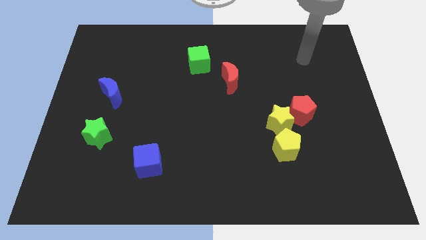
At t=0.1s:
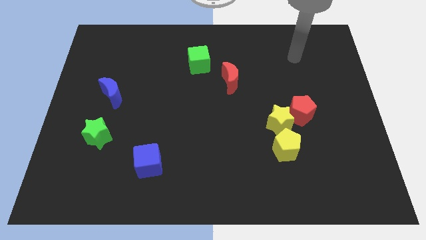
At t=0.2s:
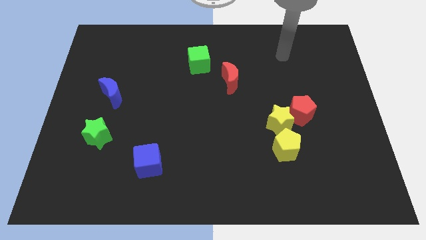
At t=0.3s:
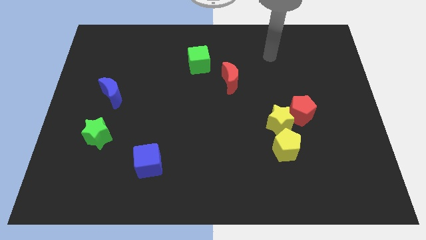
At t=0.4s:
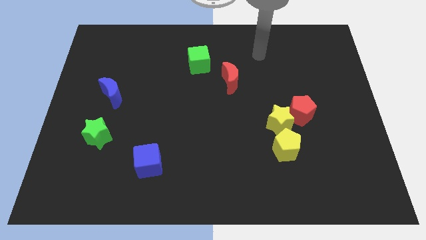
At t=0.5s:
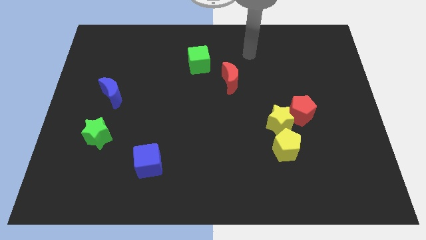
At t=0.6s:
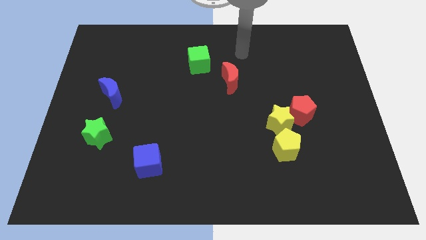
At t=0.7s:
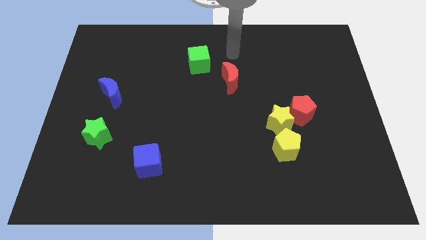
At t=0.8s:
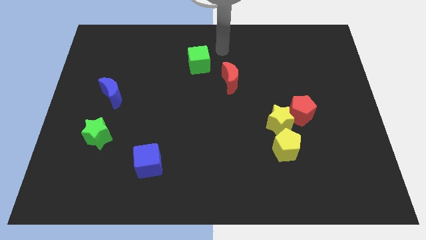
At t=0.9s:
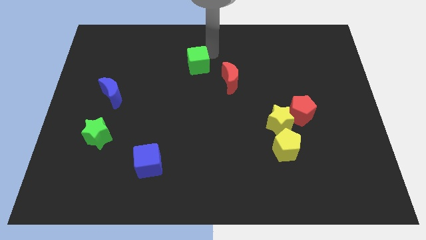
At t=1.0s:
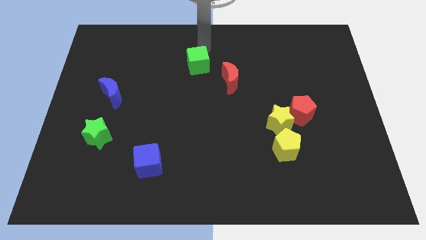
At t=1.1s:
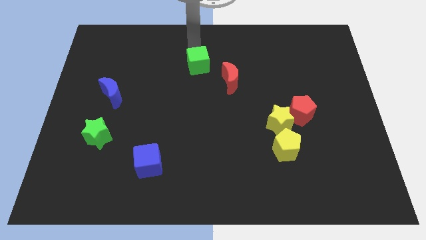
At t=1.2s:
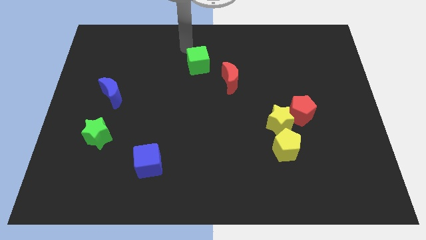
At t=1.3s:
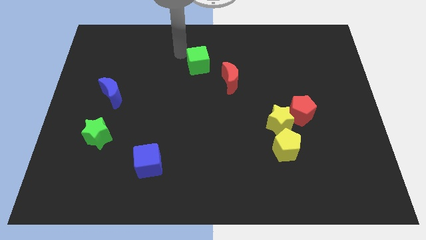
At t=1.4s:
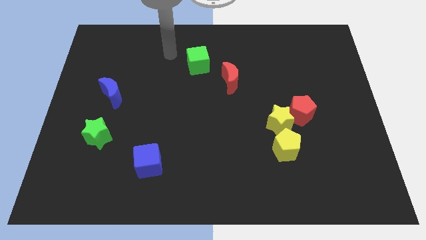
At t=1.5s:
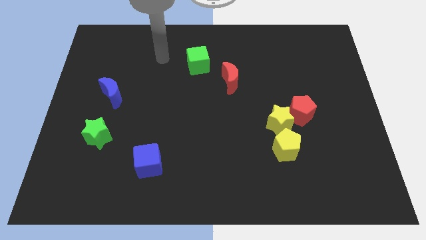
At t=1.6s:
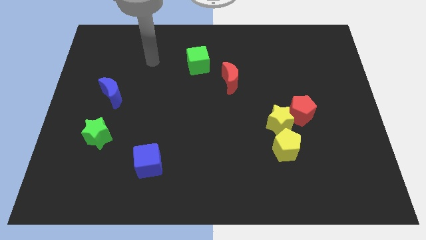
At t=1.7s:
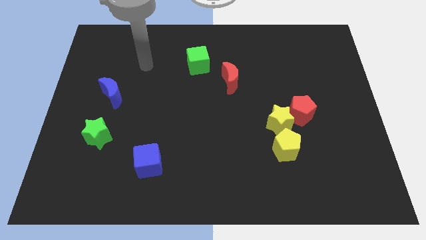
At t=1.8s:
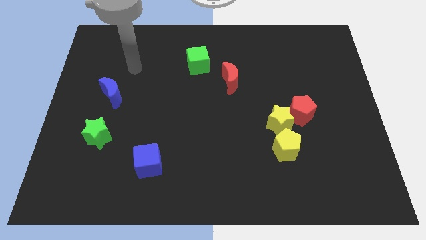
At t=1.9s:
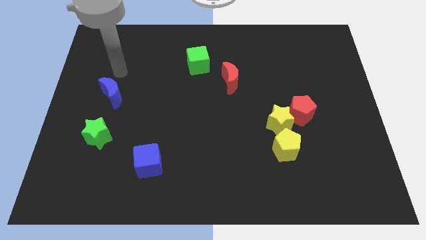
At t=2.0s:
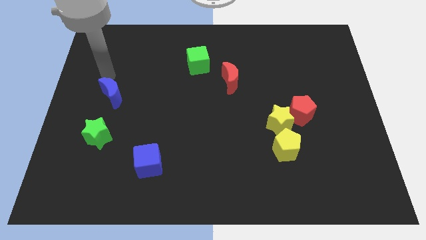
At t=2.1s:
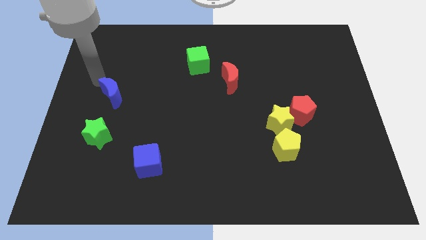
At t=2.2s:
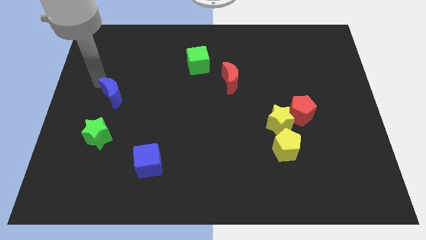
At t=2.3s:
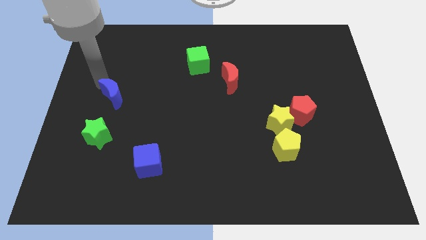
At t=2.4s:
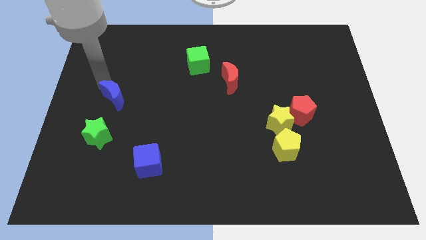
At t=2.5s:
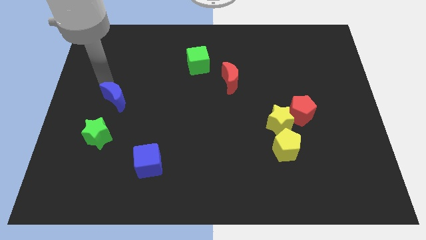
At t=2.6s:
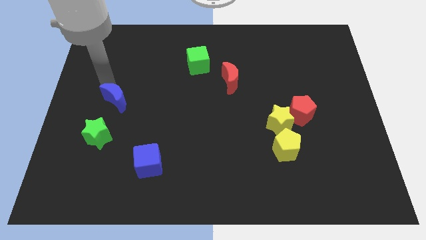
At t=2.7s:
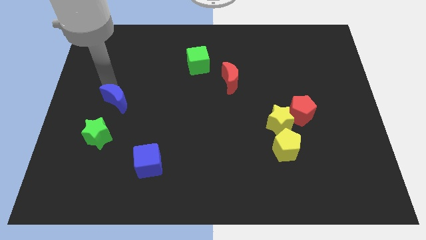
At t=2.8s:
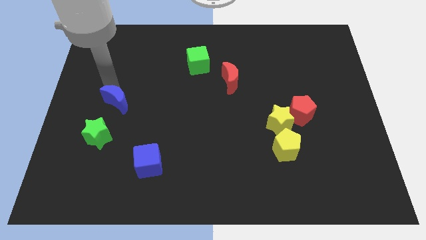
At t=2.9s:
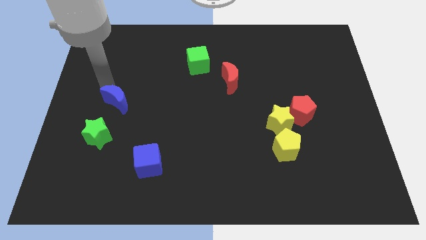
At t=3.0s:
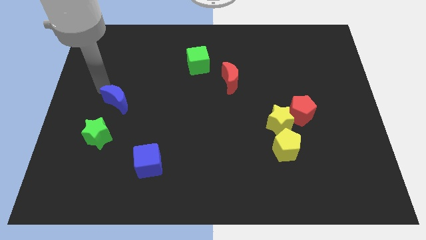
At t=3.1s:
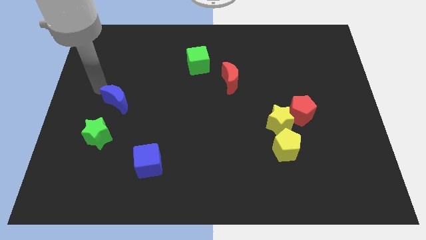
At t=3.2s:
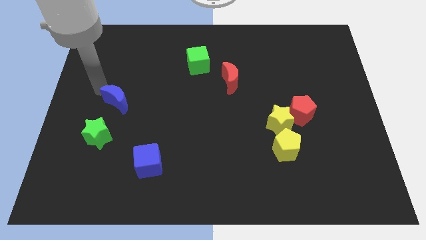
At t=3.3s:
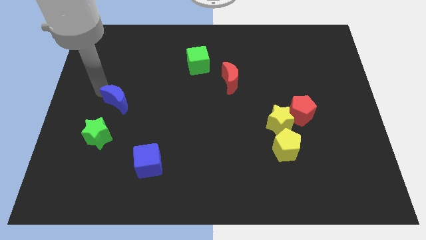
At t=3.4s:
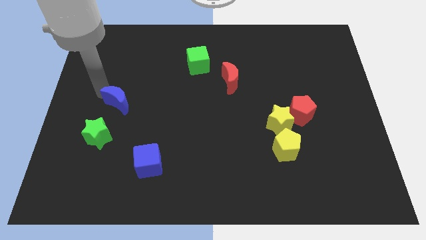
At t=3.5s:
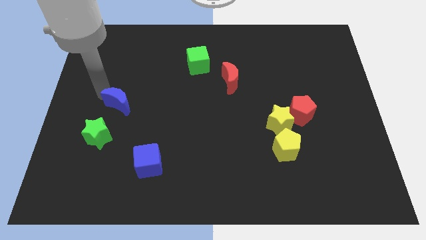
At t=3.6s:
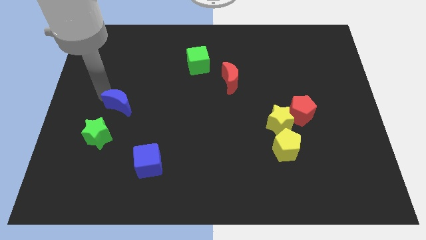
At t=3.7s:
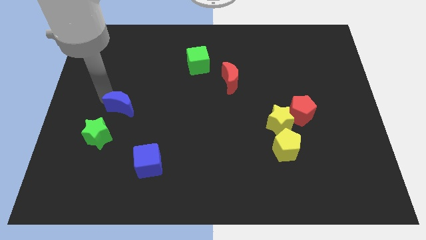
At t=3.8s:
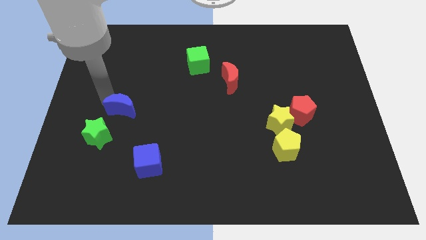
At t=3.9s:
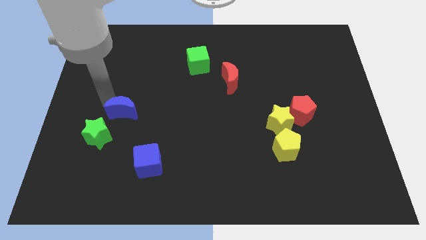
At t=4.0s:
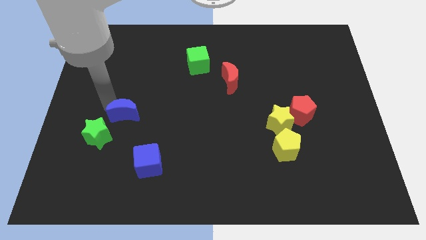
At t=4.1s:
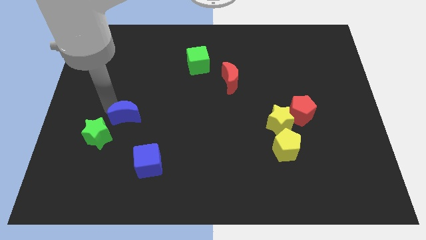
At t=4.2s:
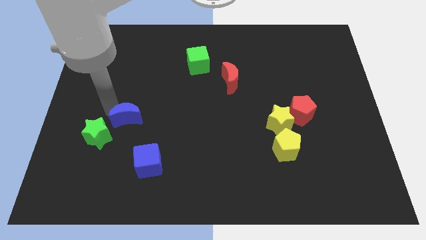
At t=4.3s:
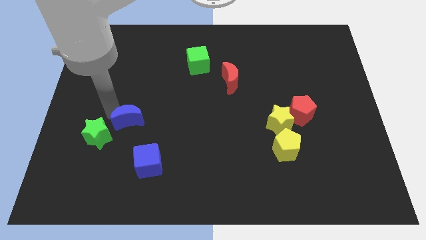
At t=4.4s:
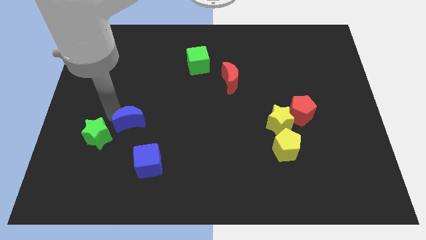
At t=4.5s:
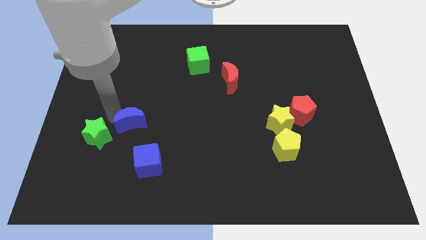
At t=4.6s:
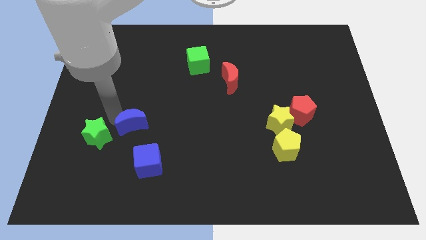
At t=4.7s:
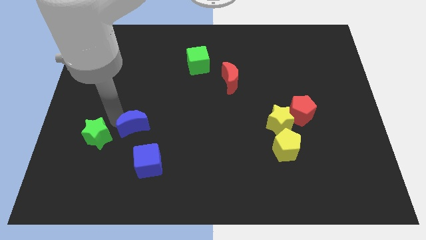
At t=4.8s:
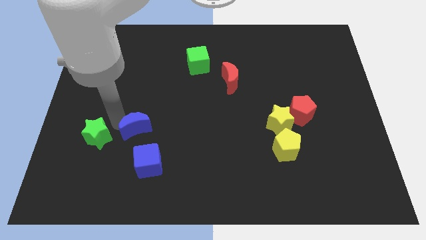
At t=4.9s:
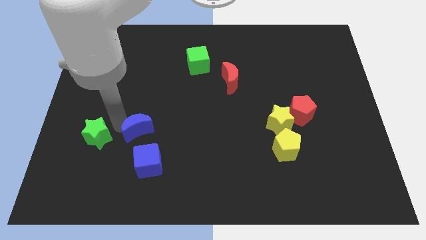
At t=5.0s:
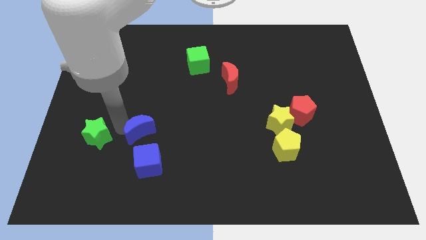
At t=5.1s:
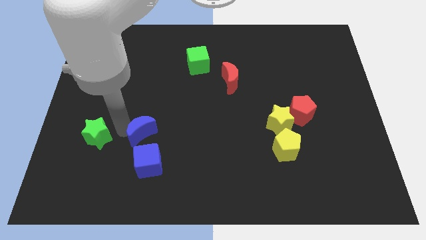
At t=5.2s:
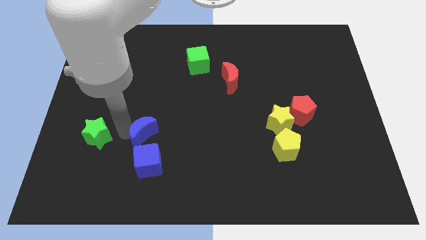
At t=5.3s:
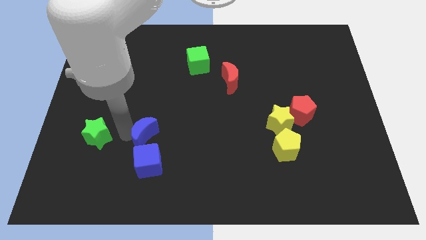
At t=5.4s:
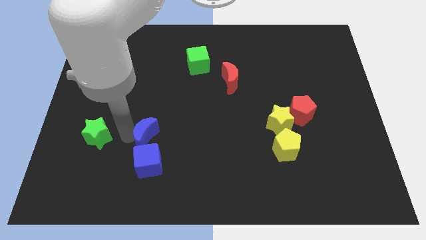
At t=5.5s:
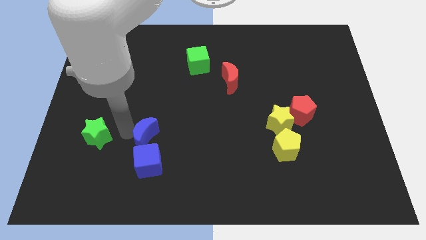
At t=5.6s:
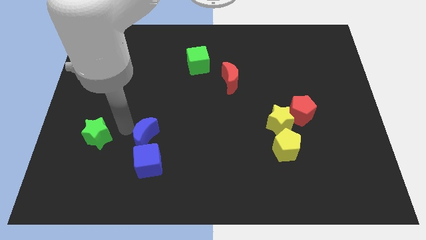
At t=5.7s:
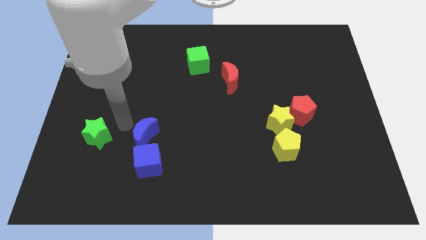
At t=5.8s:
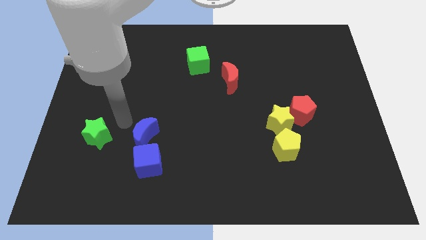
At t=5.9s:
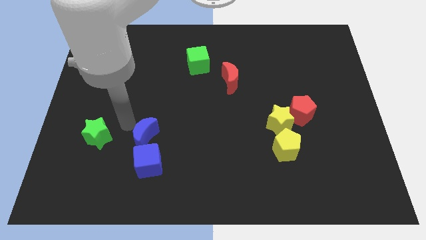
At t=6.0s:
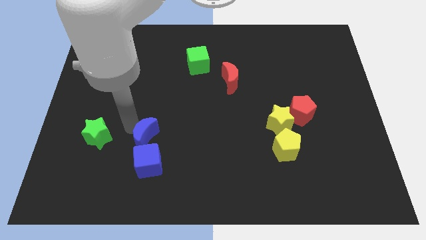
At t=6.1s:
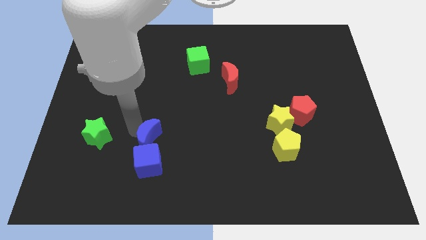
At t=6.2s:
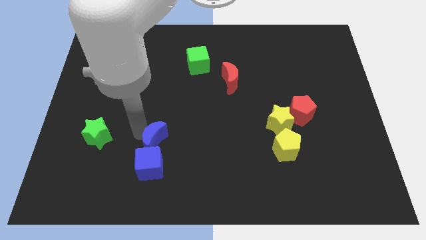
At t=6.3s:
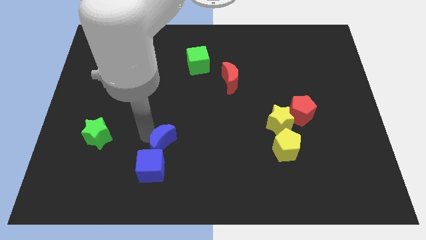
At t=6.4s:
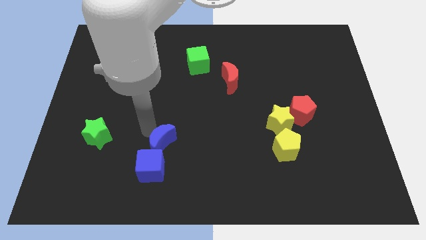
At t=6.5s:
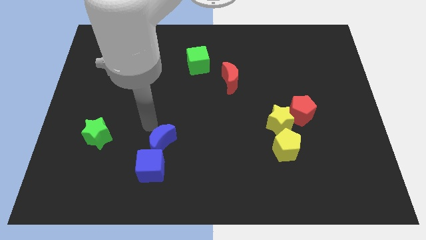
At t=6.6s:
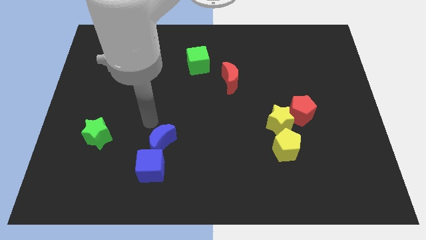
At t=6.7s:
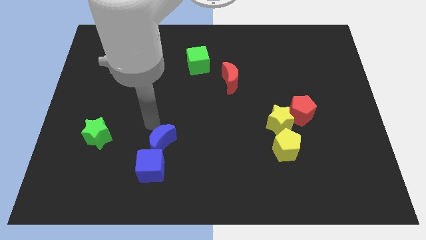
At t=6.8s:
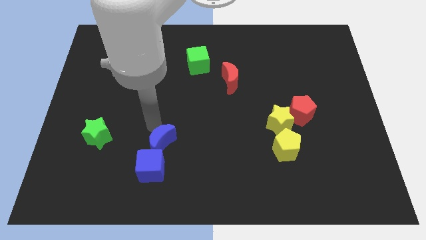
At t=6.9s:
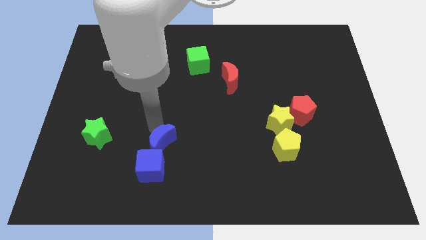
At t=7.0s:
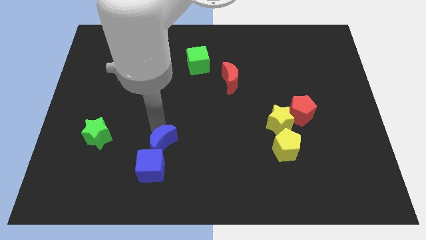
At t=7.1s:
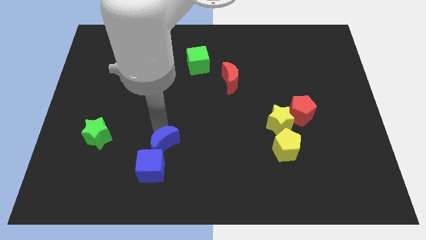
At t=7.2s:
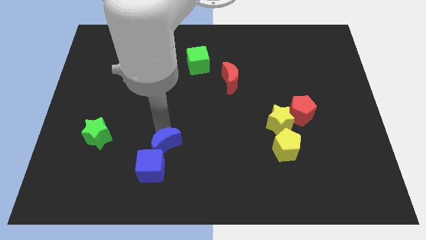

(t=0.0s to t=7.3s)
push the blue moon down and then right

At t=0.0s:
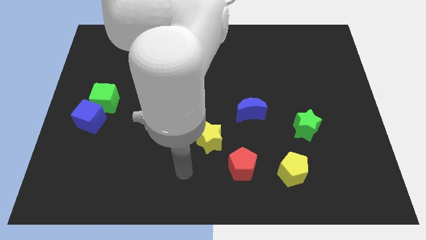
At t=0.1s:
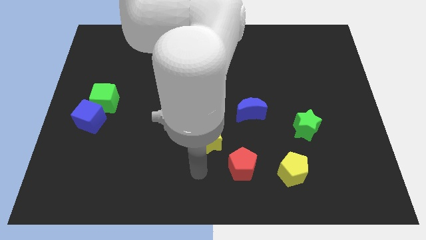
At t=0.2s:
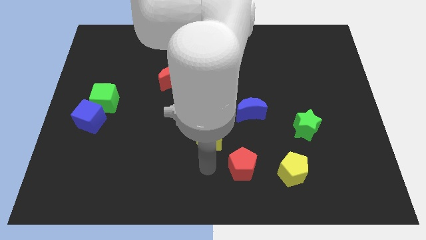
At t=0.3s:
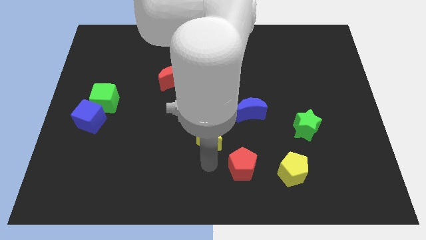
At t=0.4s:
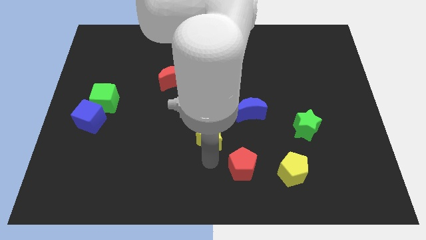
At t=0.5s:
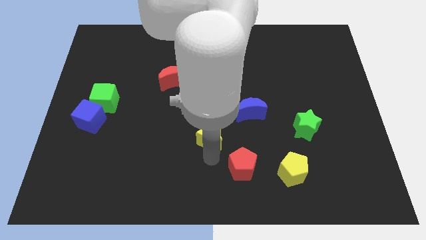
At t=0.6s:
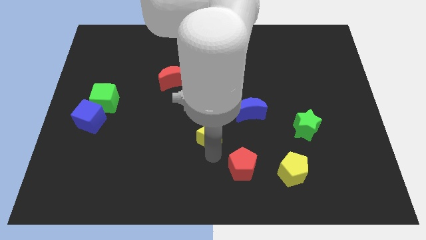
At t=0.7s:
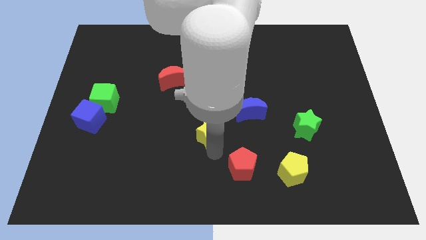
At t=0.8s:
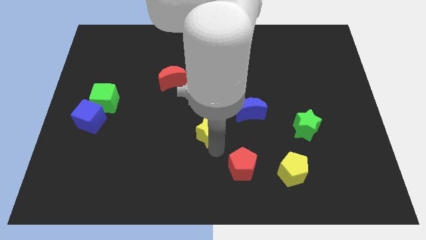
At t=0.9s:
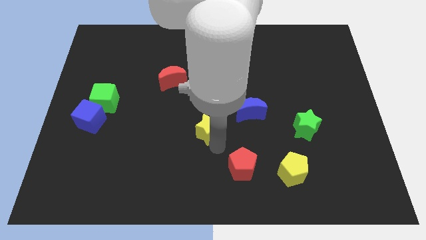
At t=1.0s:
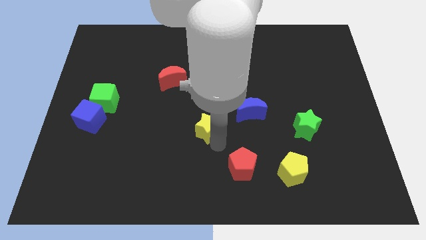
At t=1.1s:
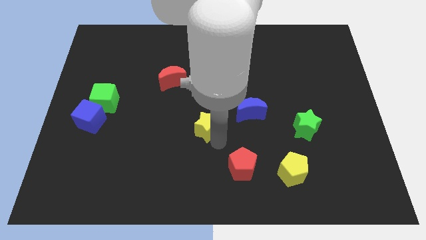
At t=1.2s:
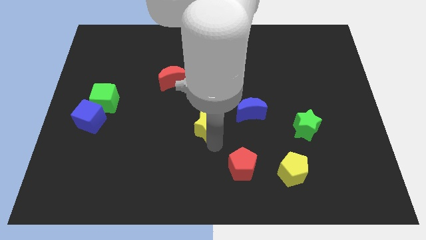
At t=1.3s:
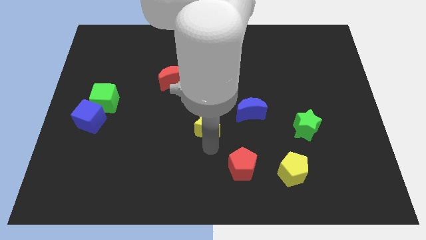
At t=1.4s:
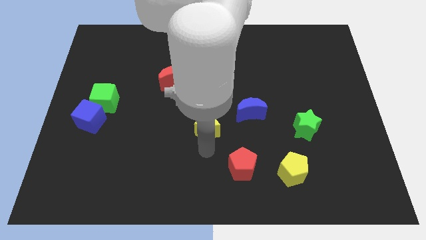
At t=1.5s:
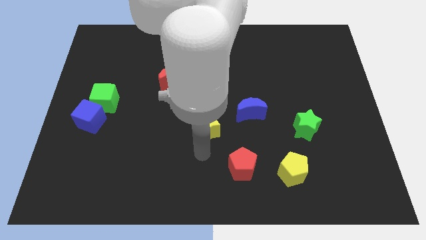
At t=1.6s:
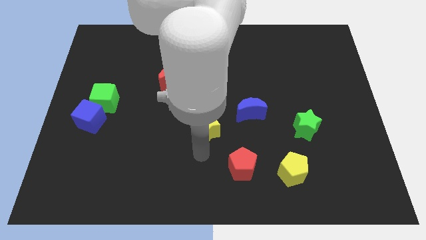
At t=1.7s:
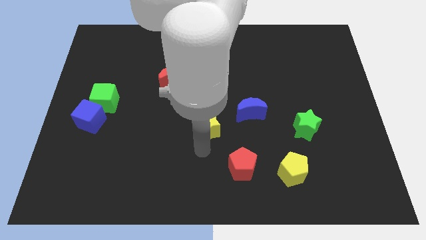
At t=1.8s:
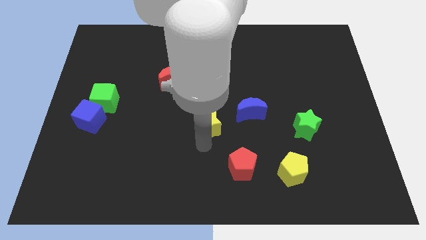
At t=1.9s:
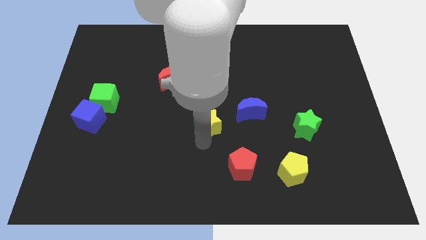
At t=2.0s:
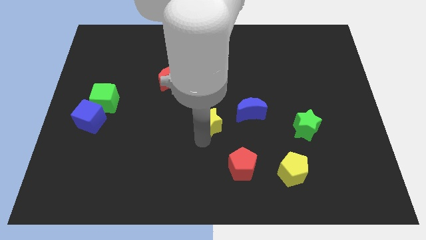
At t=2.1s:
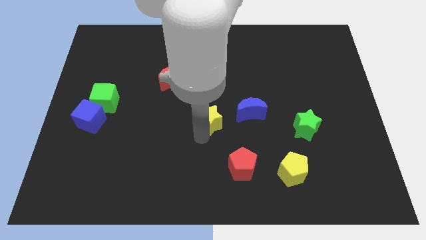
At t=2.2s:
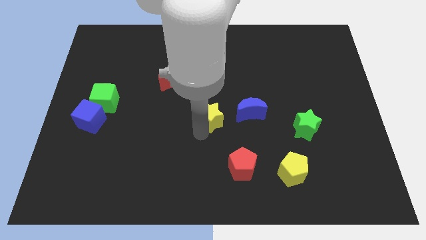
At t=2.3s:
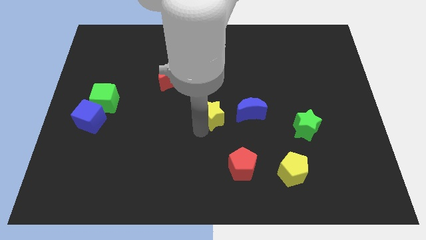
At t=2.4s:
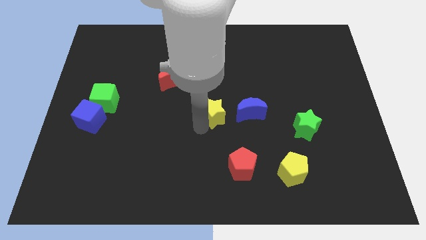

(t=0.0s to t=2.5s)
slightly push the yellow star up
